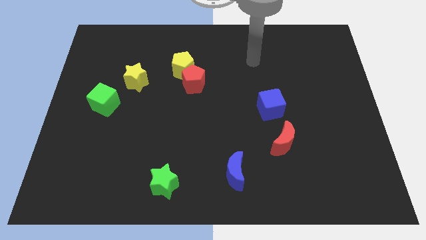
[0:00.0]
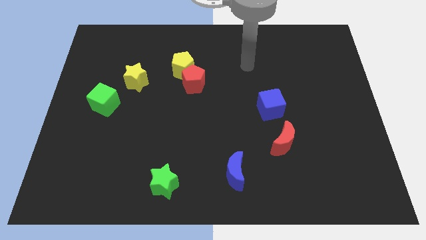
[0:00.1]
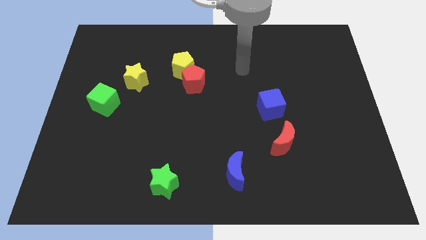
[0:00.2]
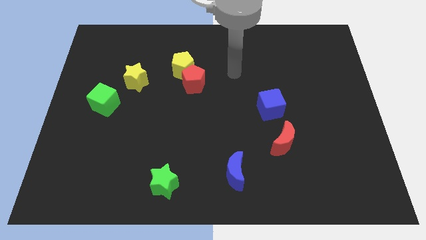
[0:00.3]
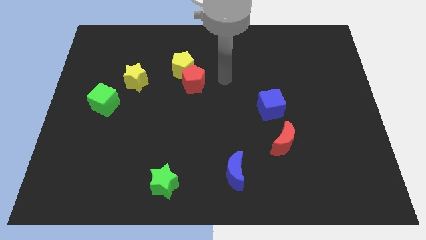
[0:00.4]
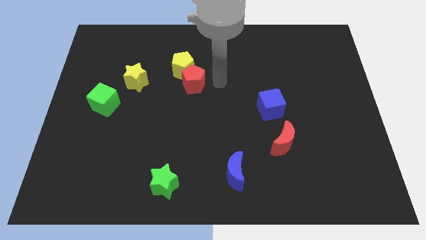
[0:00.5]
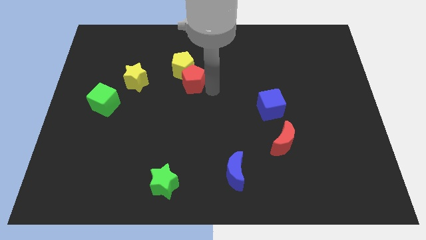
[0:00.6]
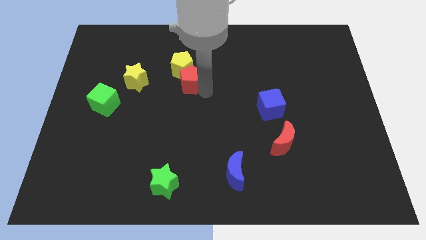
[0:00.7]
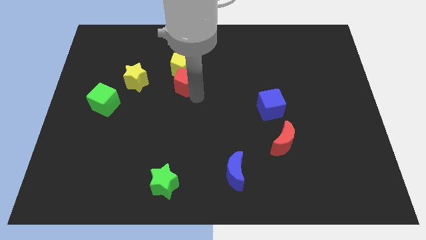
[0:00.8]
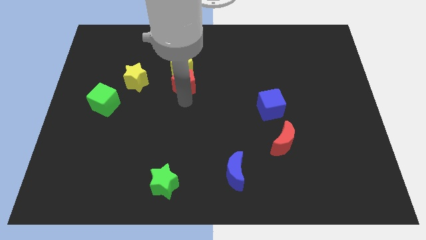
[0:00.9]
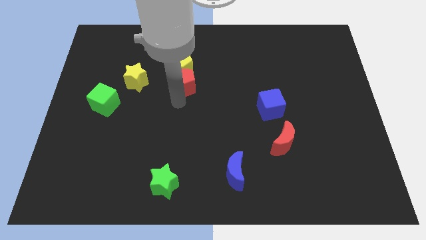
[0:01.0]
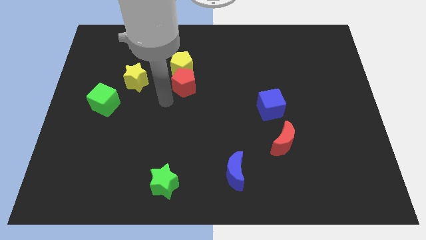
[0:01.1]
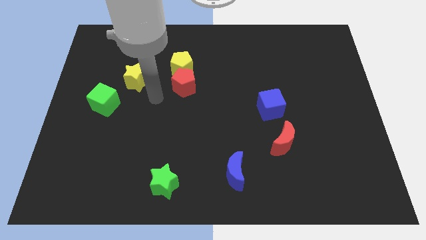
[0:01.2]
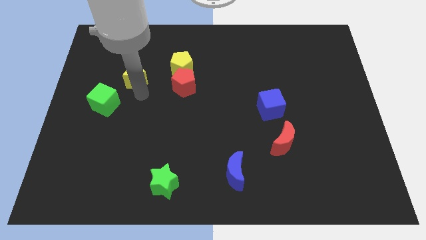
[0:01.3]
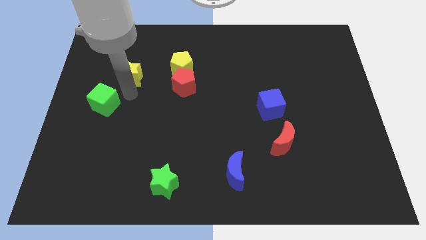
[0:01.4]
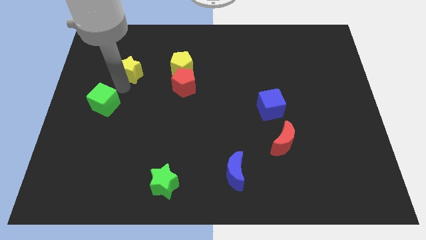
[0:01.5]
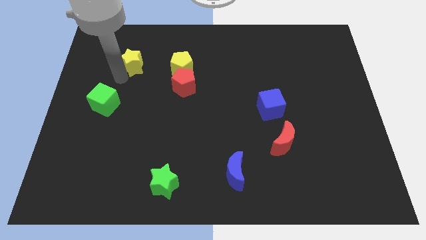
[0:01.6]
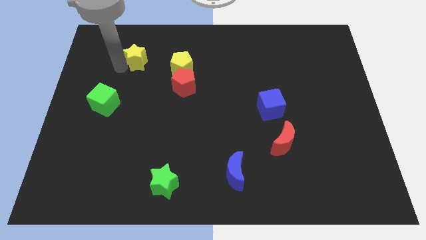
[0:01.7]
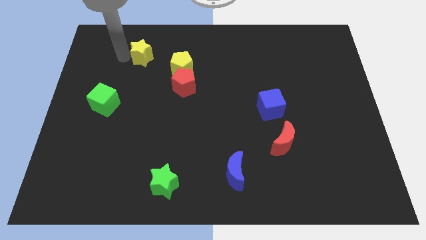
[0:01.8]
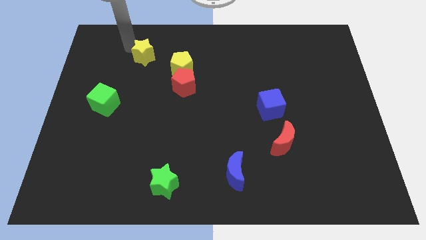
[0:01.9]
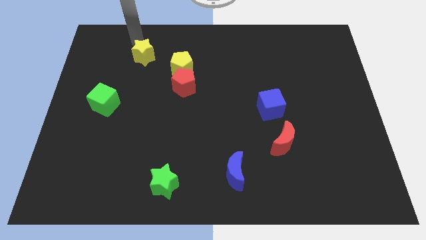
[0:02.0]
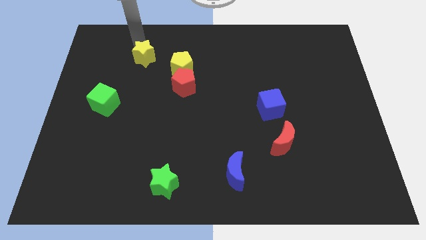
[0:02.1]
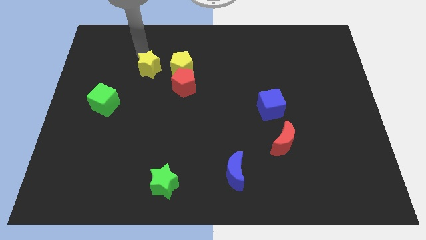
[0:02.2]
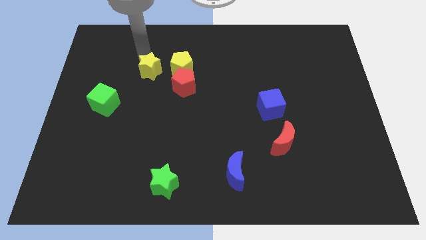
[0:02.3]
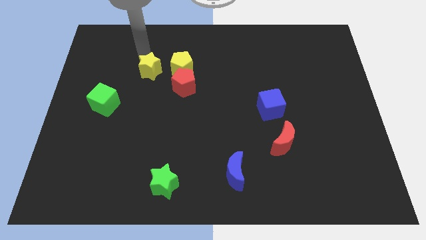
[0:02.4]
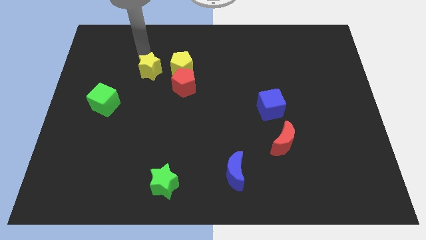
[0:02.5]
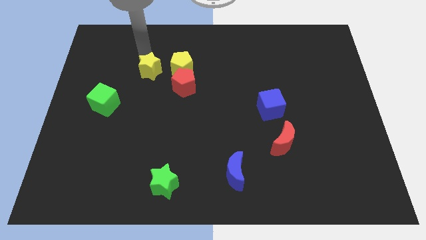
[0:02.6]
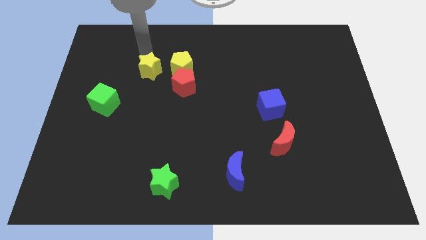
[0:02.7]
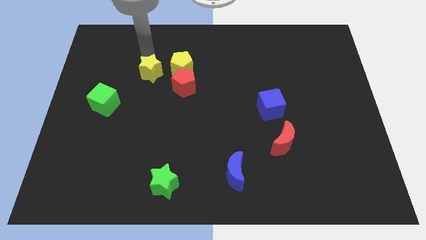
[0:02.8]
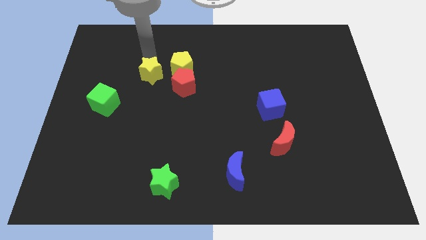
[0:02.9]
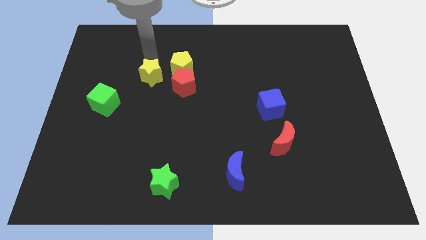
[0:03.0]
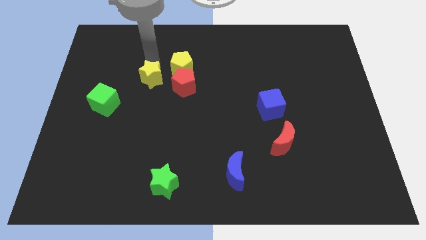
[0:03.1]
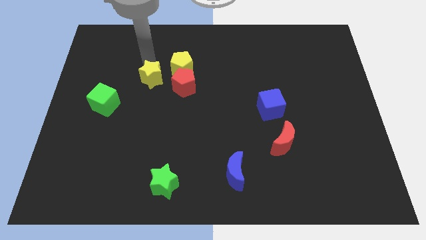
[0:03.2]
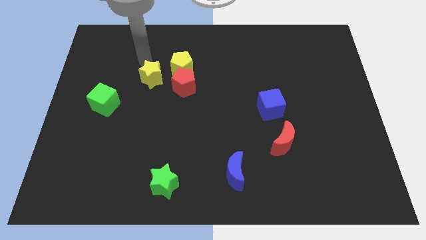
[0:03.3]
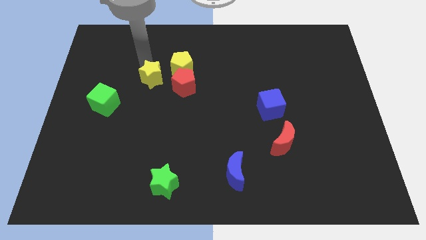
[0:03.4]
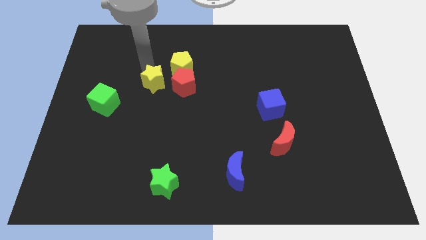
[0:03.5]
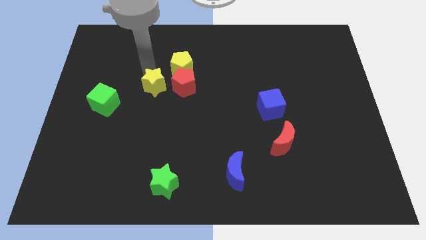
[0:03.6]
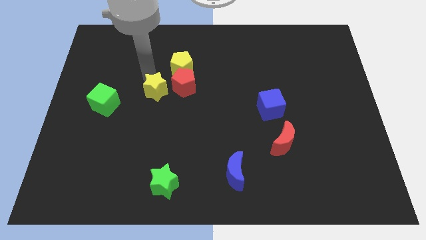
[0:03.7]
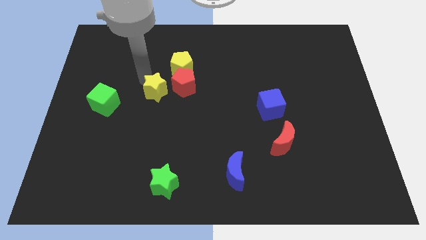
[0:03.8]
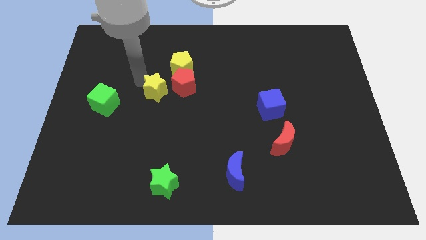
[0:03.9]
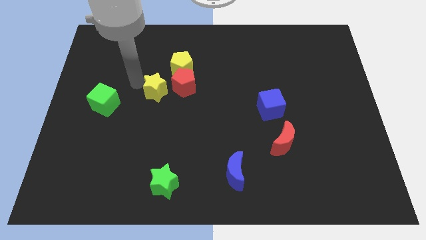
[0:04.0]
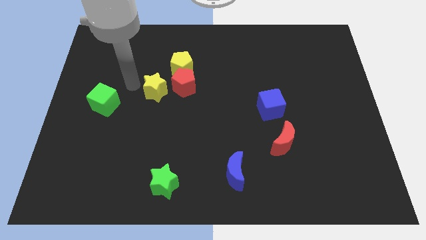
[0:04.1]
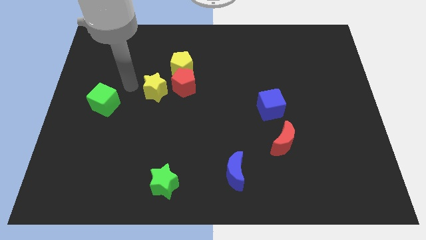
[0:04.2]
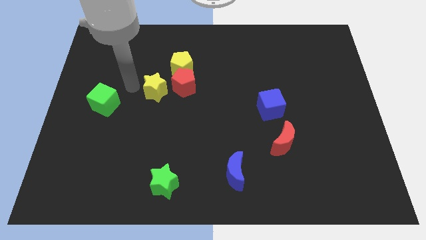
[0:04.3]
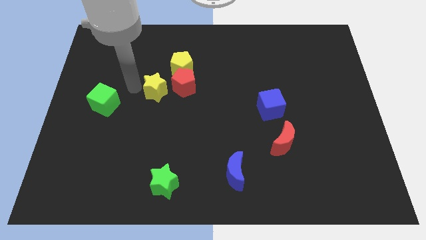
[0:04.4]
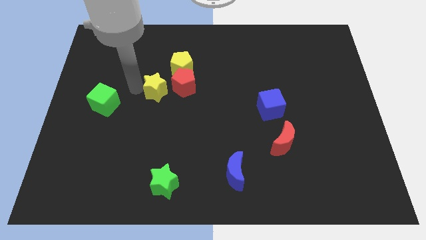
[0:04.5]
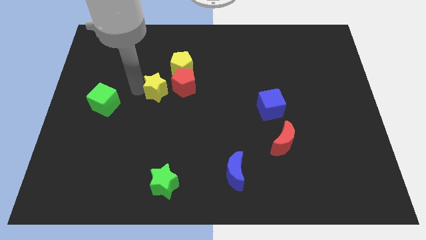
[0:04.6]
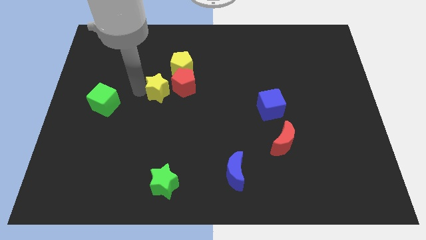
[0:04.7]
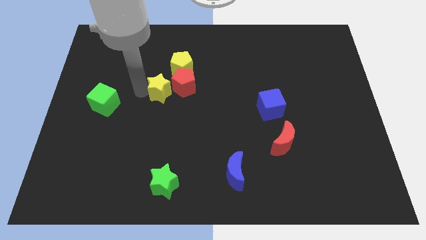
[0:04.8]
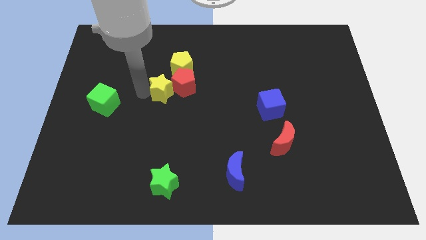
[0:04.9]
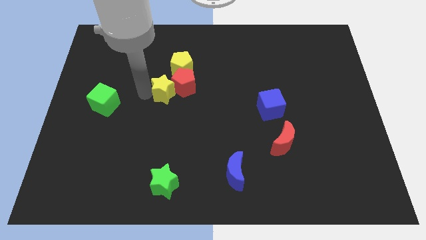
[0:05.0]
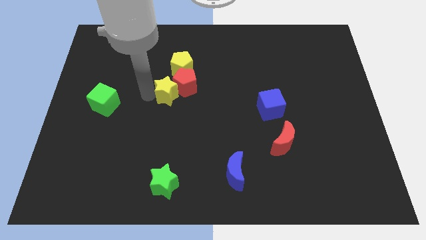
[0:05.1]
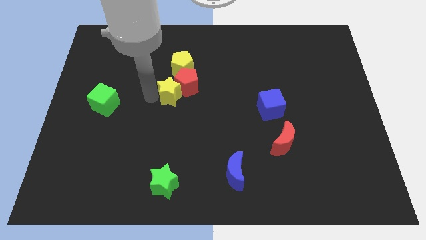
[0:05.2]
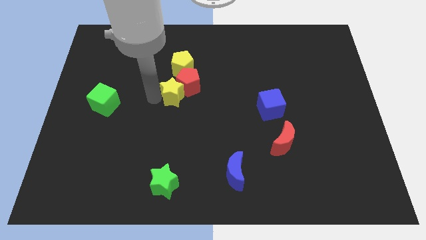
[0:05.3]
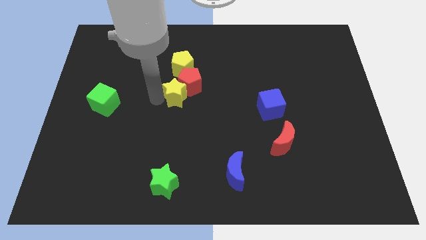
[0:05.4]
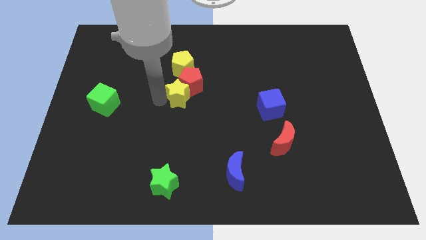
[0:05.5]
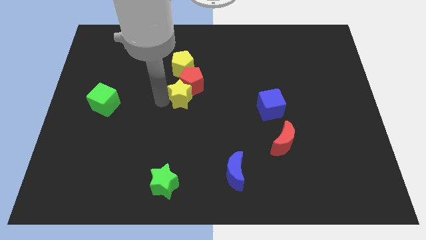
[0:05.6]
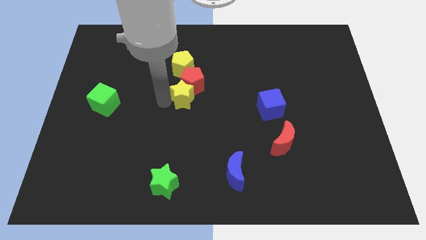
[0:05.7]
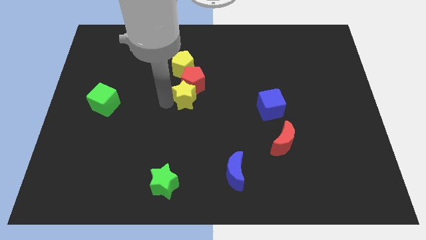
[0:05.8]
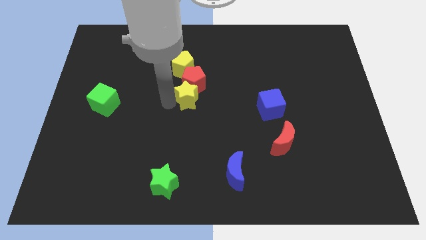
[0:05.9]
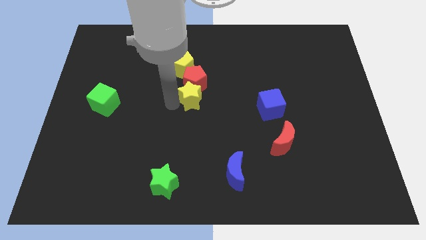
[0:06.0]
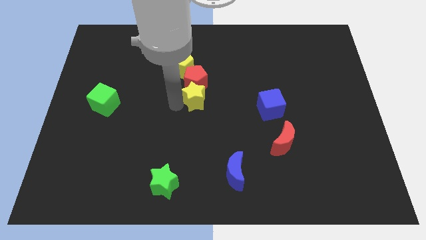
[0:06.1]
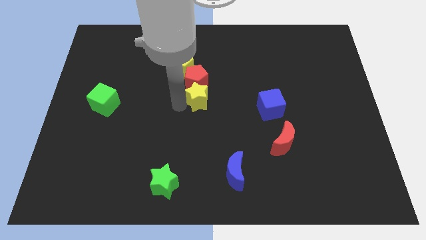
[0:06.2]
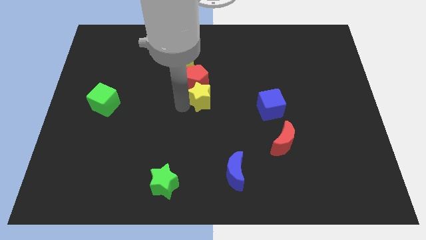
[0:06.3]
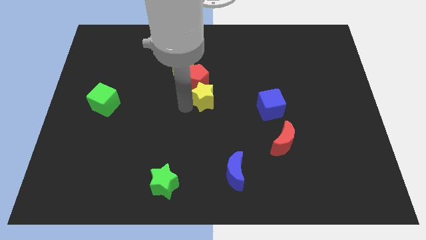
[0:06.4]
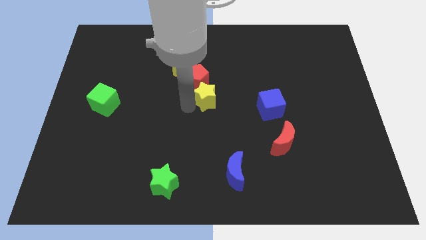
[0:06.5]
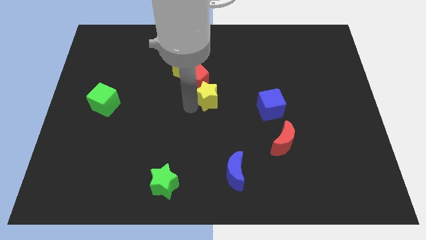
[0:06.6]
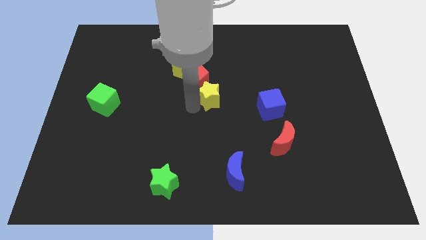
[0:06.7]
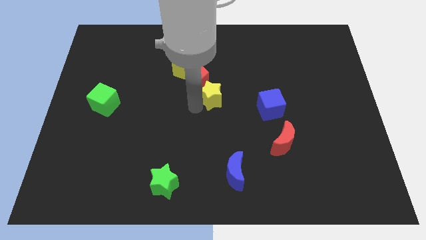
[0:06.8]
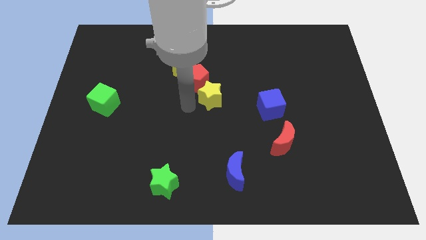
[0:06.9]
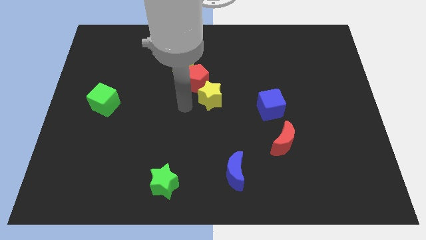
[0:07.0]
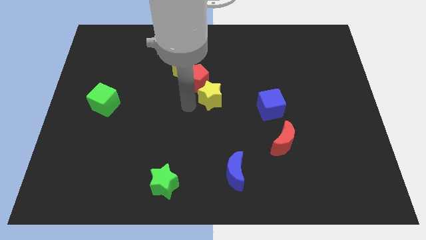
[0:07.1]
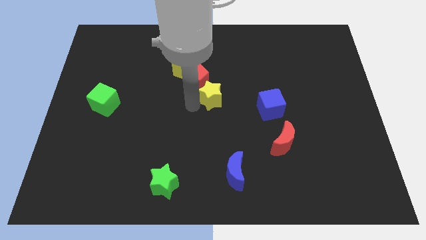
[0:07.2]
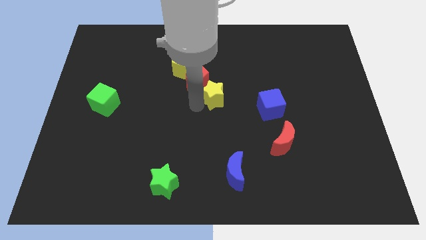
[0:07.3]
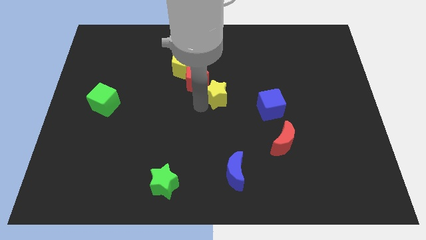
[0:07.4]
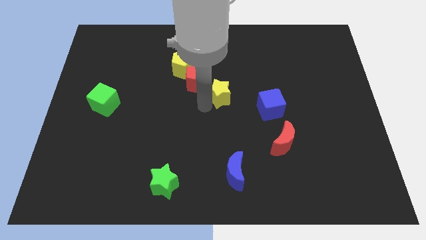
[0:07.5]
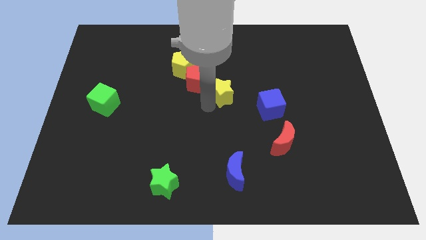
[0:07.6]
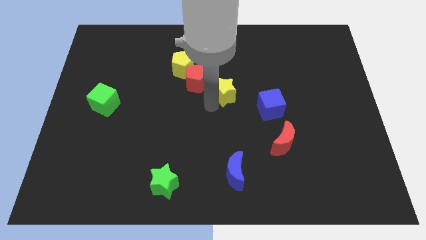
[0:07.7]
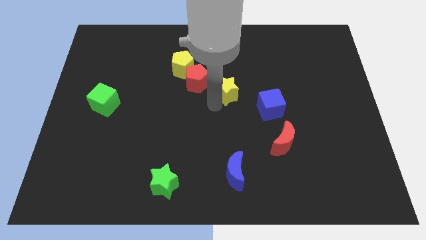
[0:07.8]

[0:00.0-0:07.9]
put the yellow star to the top left side of the blue cube

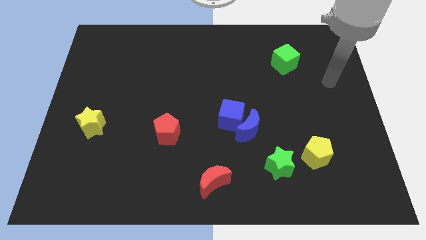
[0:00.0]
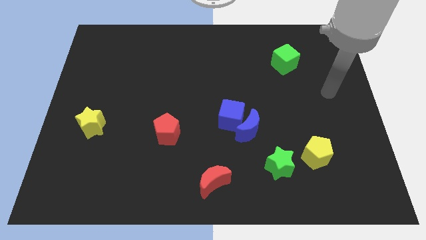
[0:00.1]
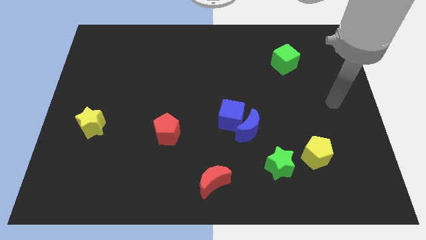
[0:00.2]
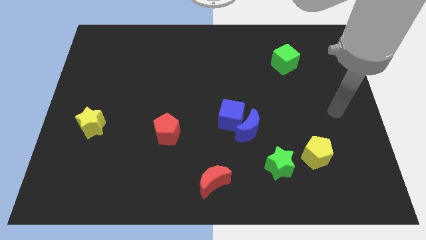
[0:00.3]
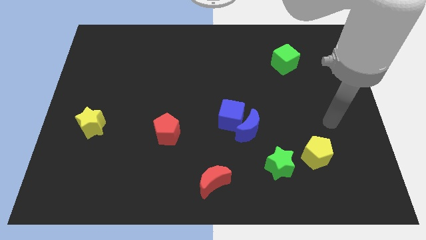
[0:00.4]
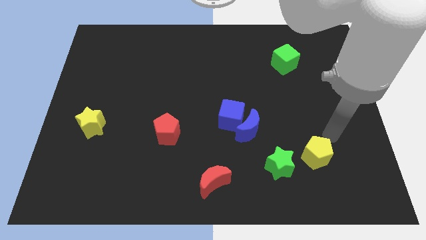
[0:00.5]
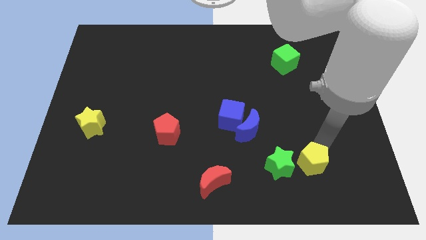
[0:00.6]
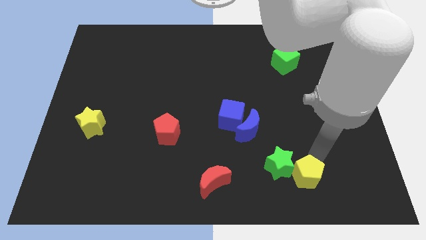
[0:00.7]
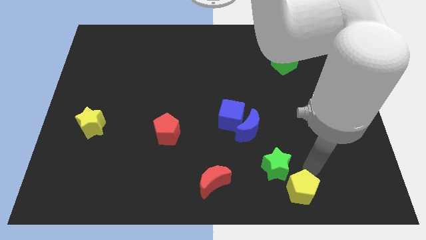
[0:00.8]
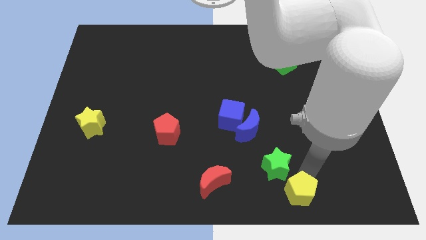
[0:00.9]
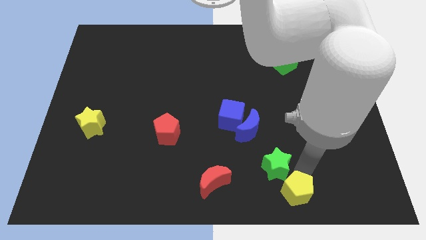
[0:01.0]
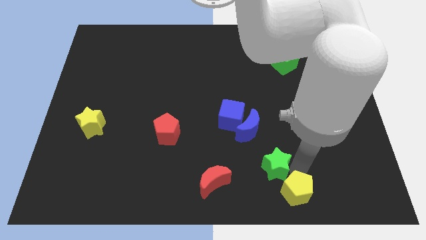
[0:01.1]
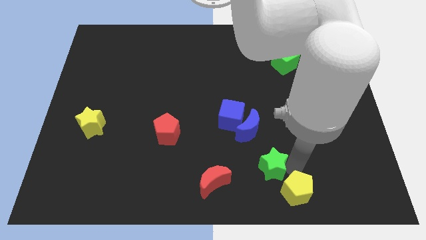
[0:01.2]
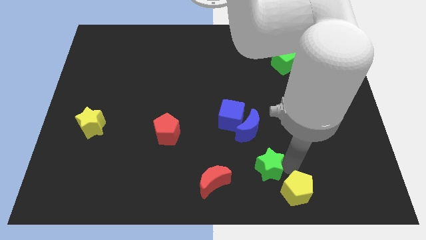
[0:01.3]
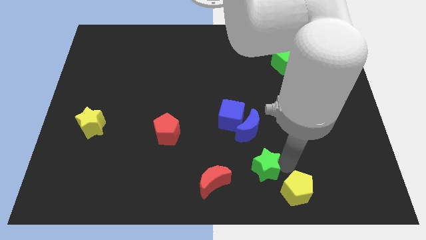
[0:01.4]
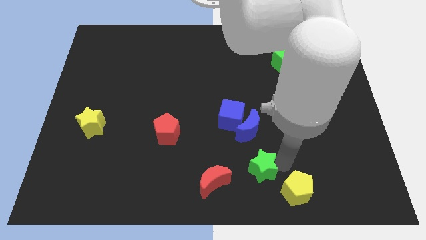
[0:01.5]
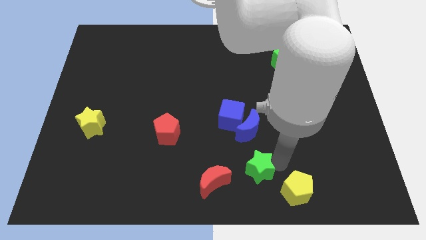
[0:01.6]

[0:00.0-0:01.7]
slide the green star diagonally up and to the right of the red moon
